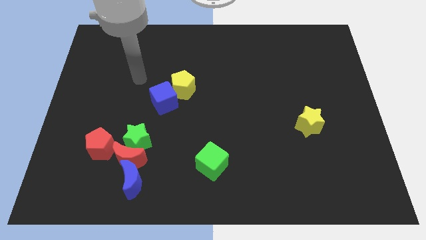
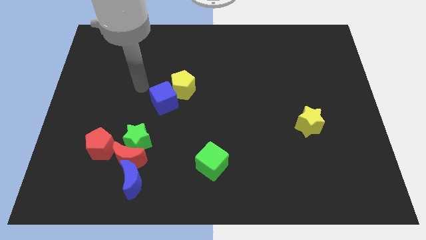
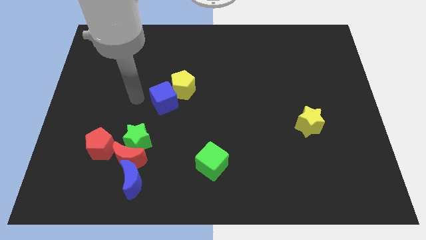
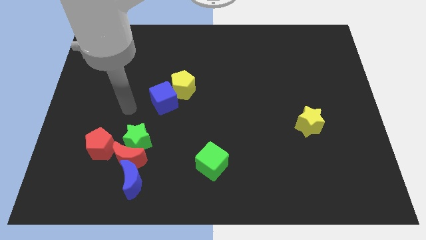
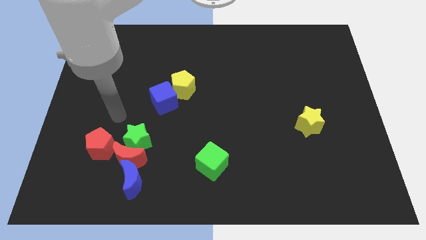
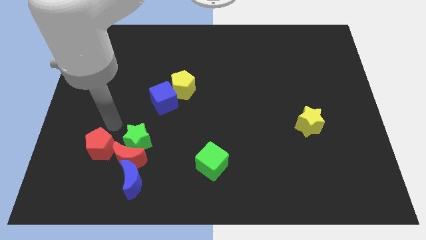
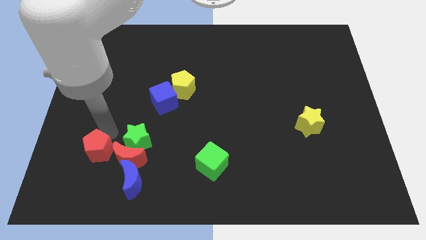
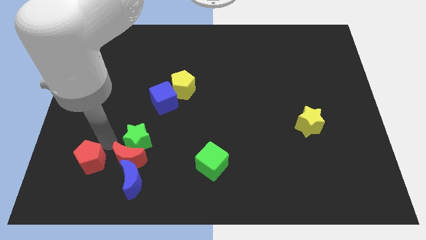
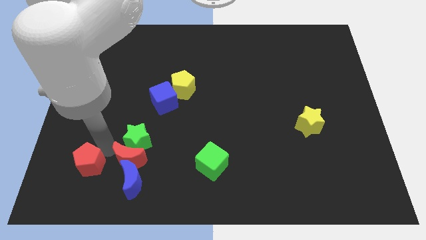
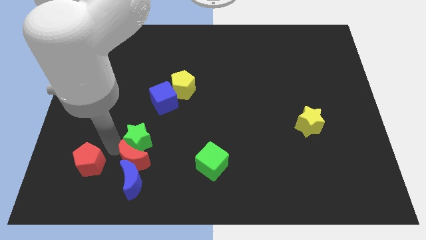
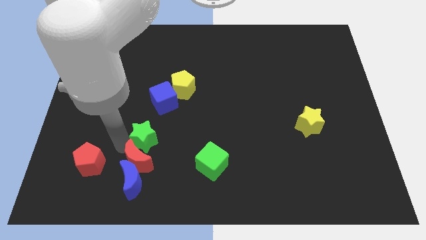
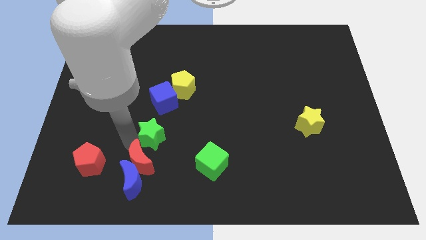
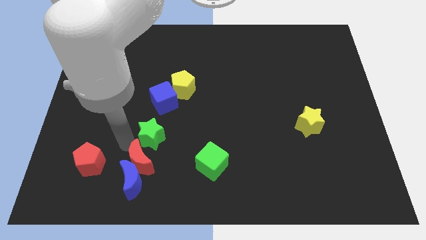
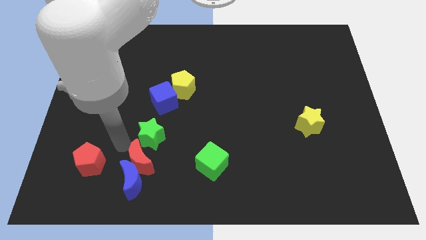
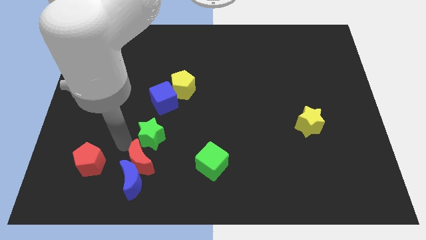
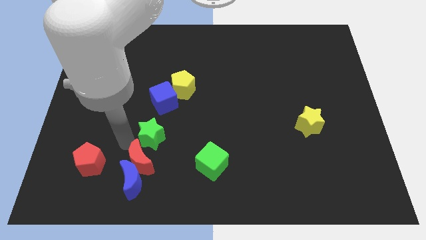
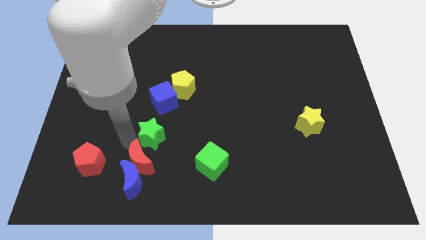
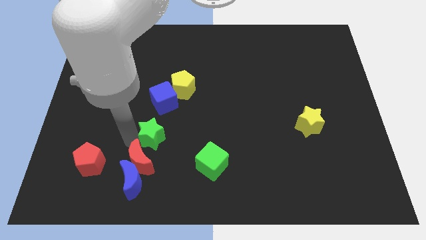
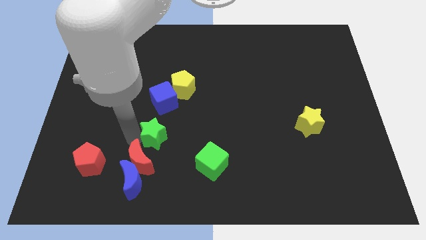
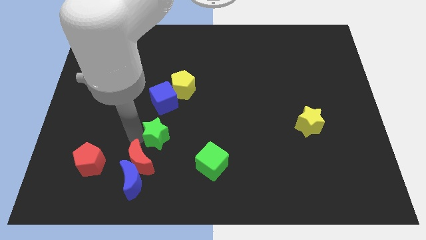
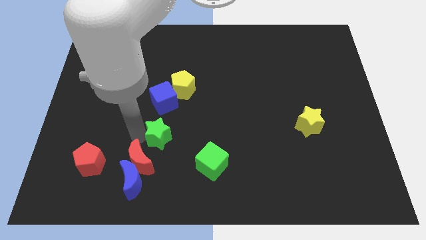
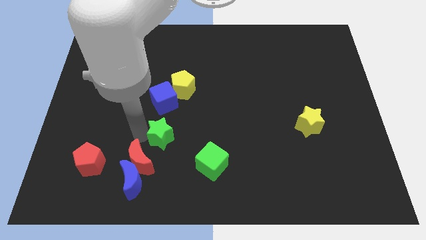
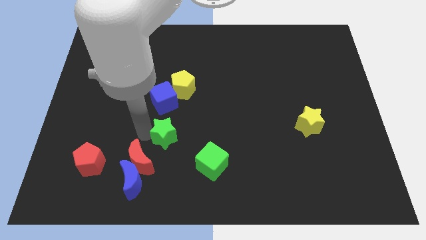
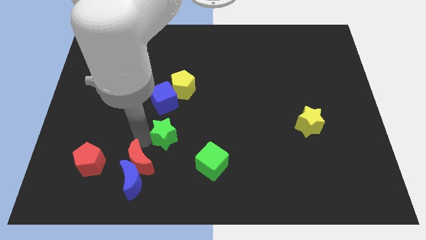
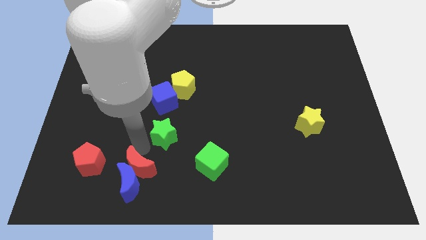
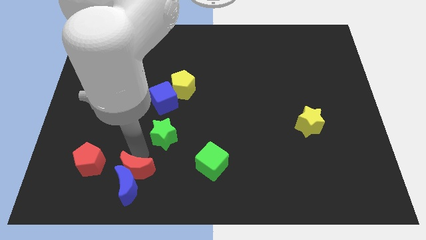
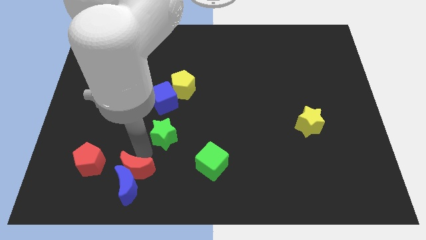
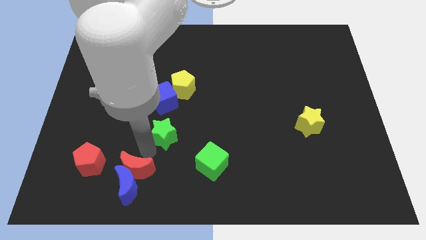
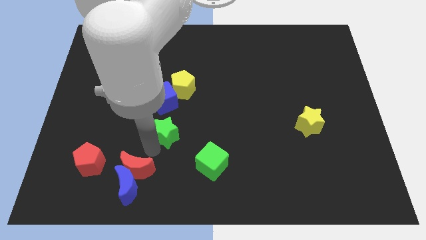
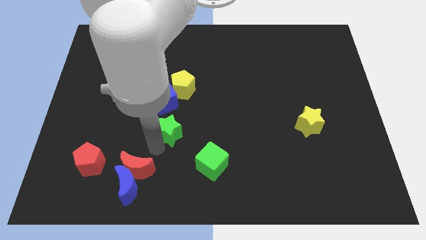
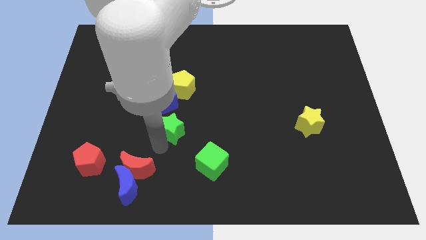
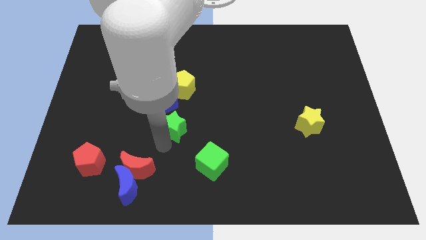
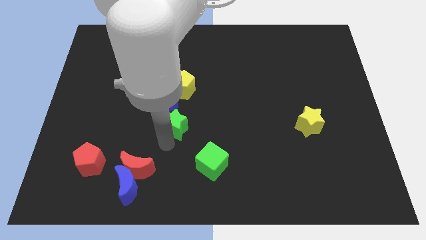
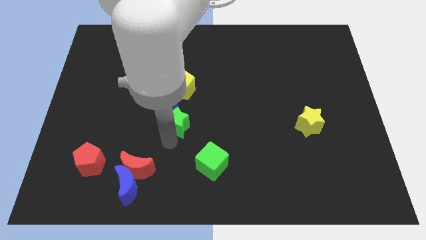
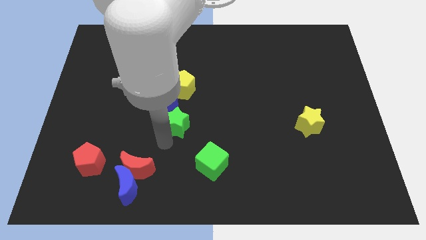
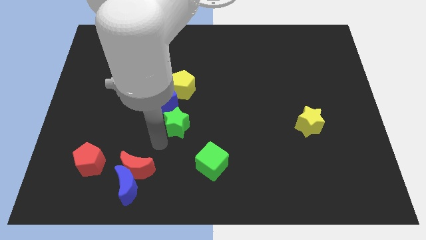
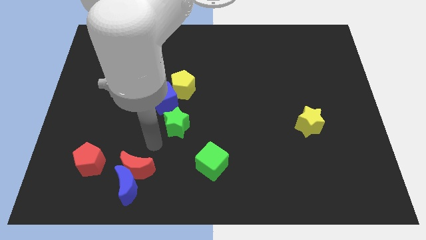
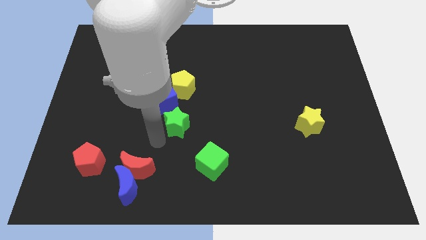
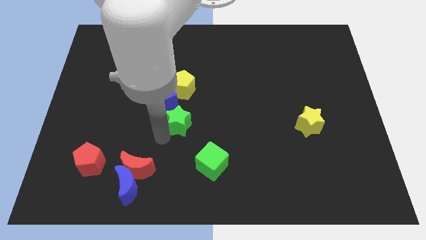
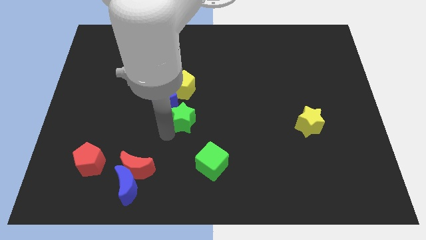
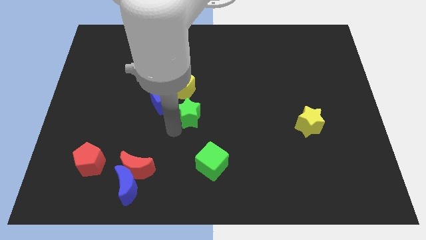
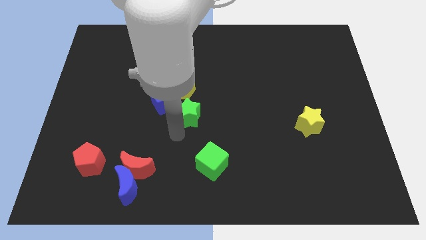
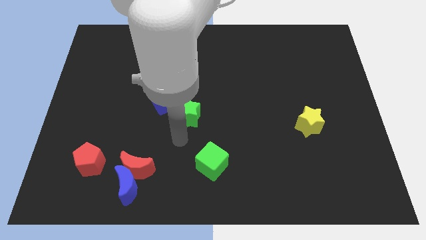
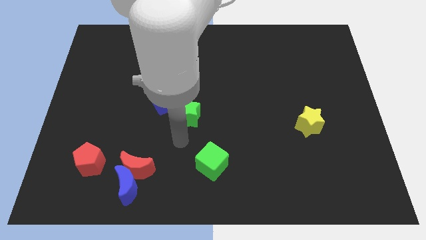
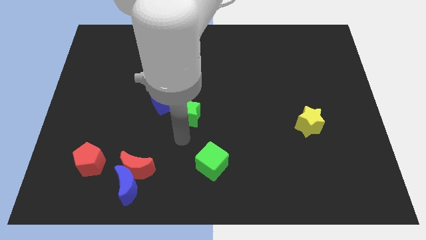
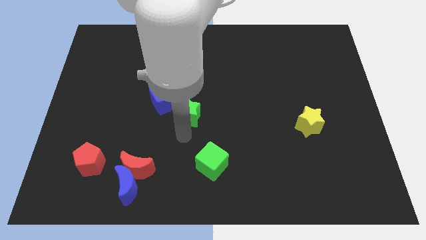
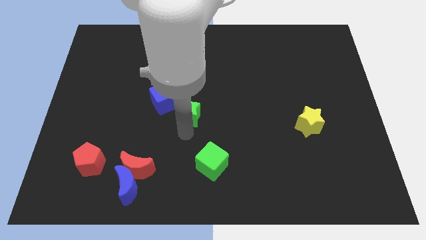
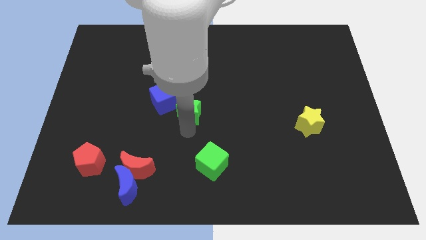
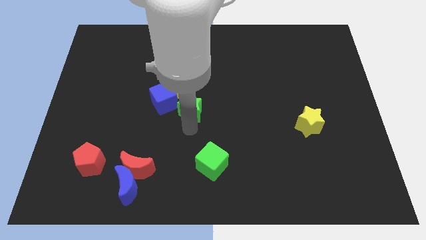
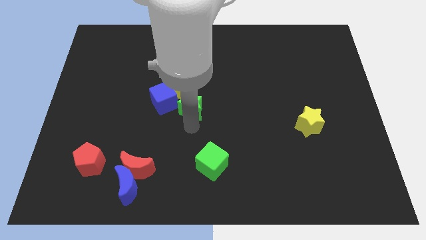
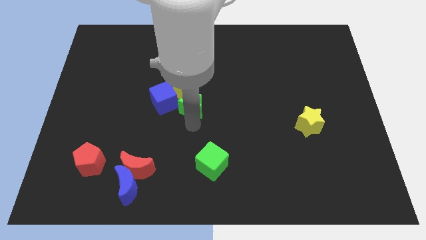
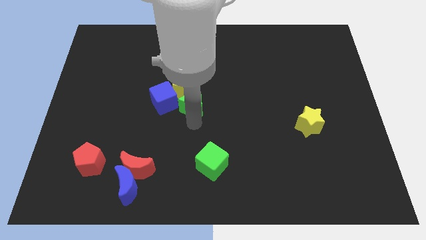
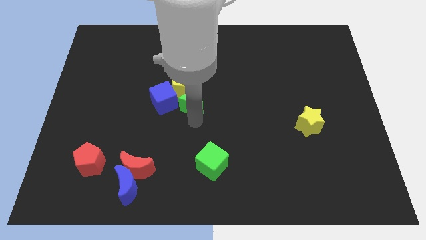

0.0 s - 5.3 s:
push the green star to the yellow pentagon

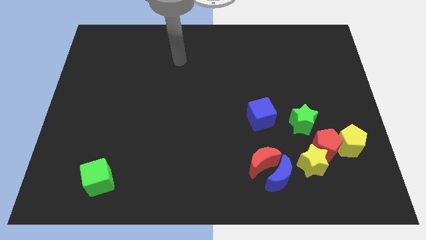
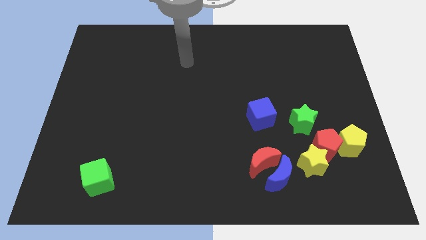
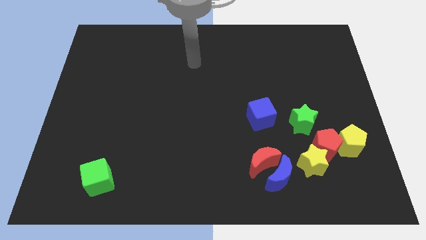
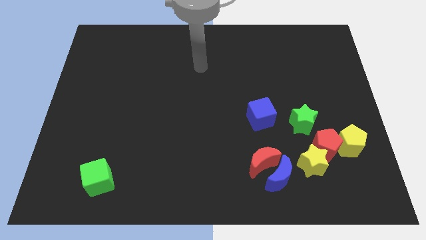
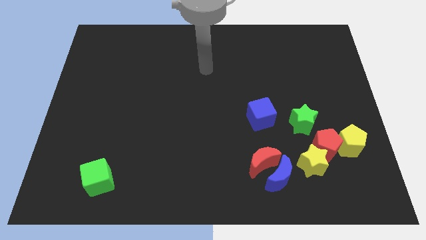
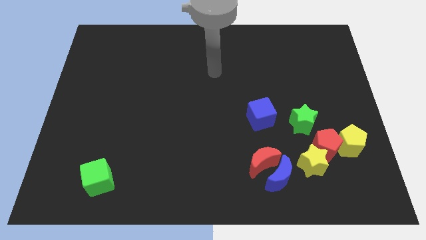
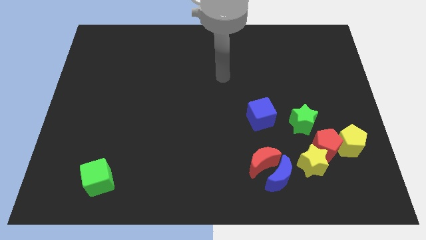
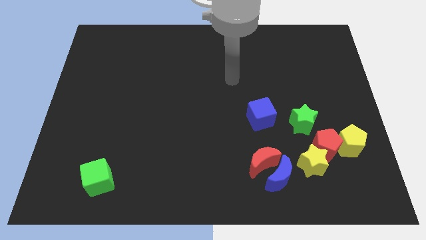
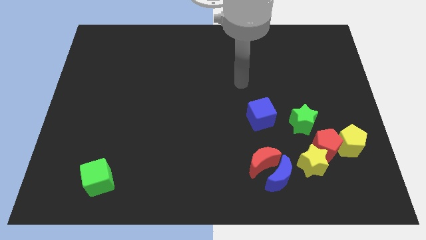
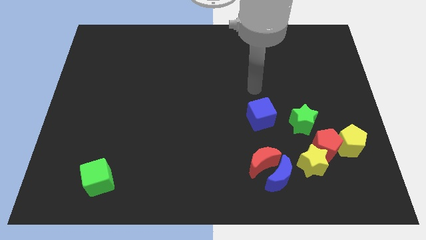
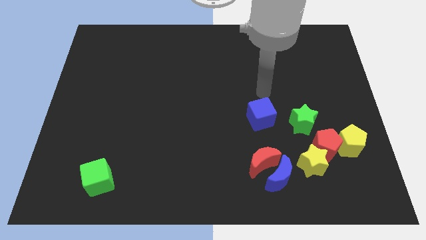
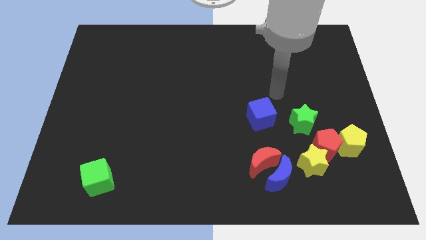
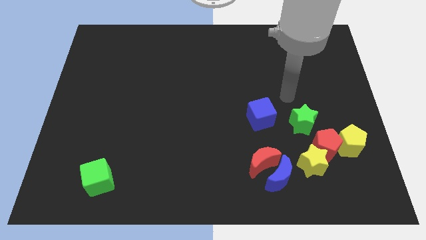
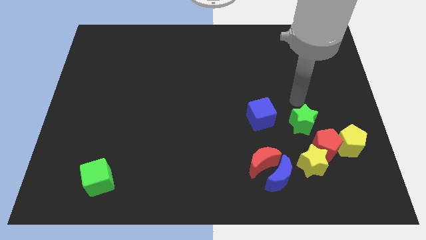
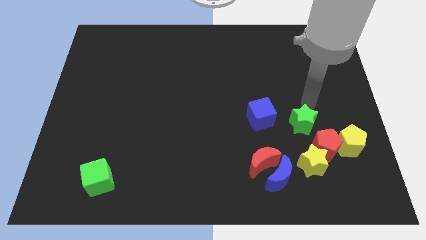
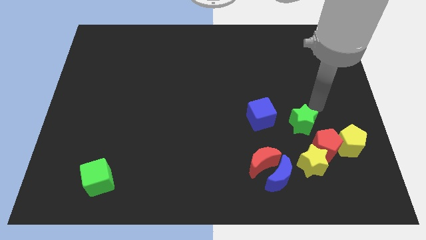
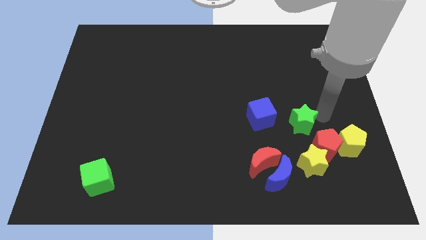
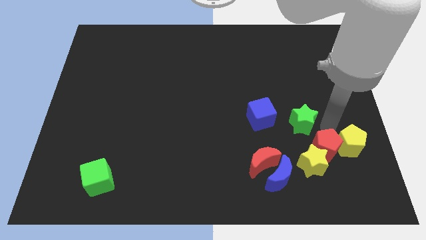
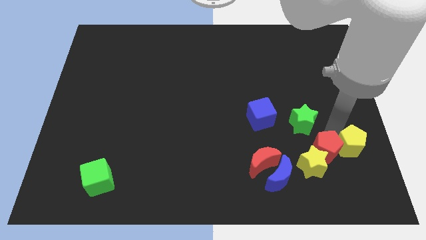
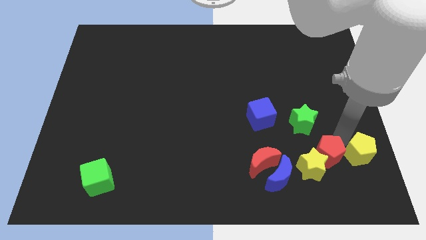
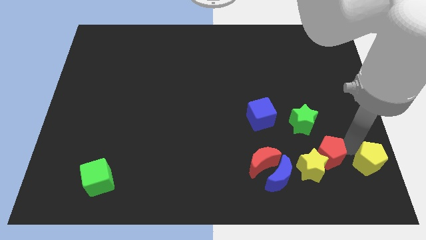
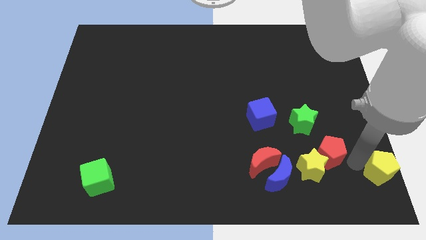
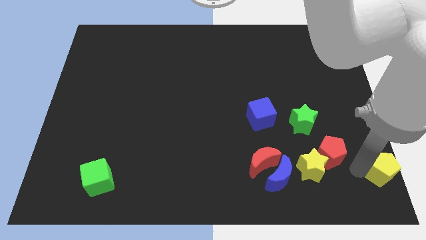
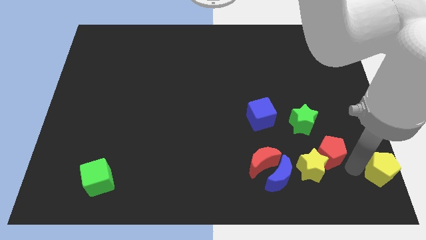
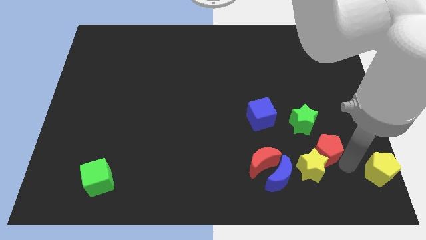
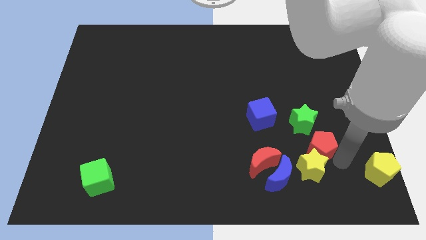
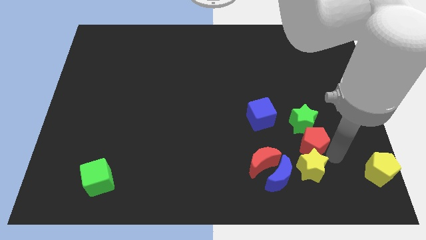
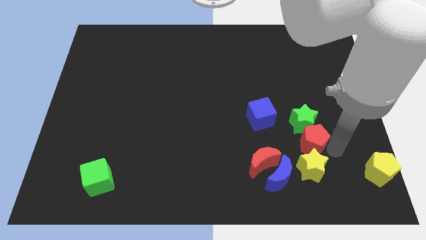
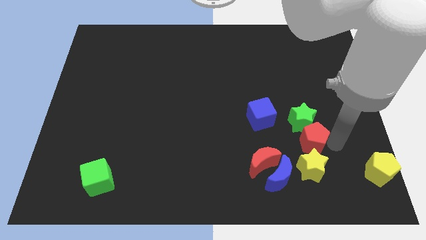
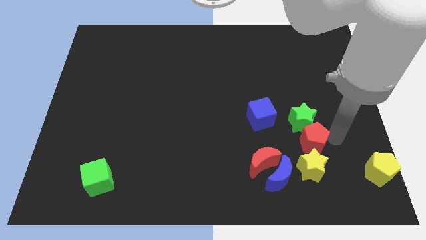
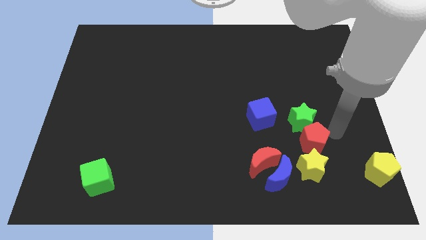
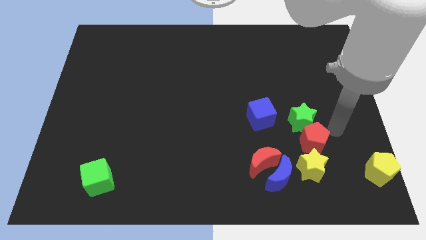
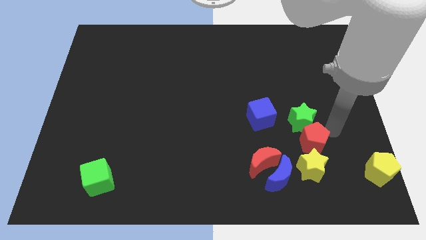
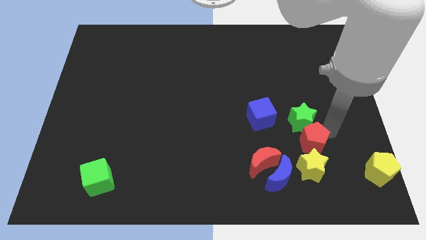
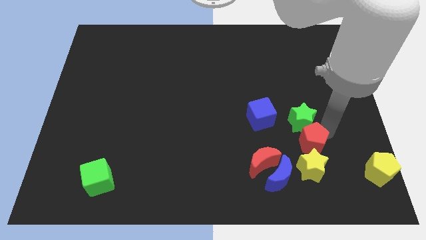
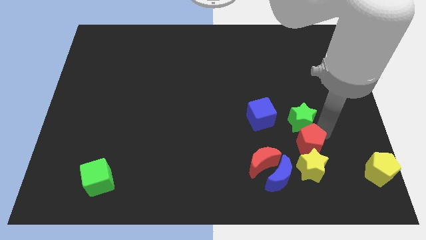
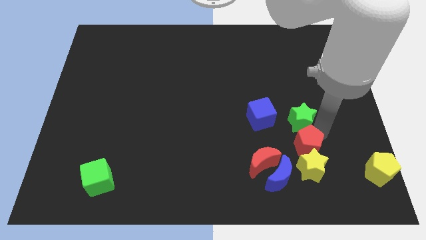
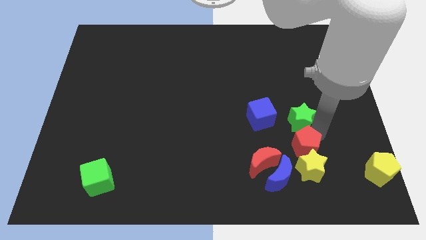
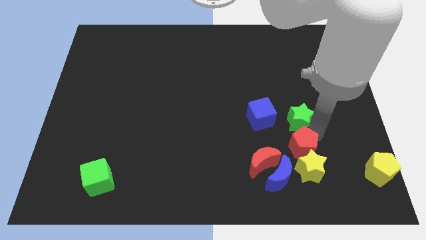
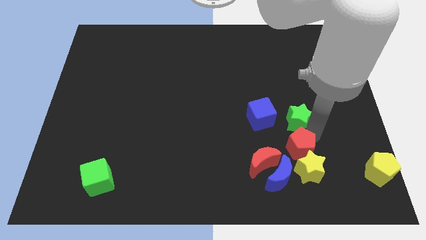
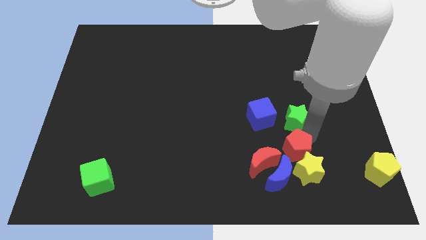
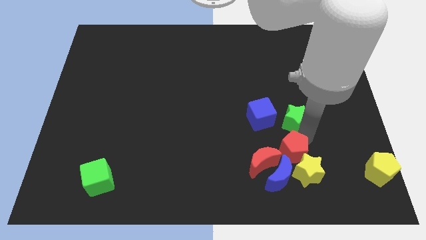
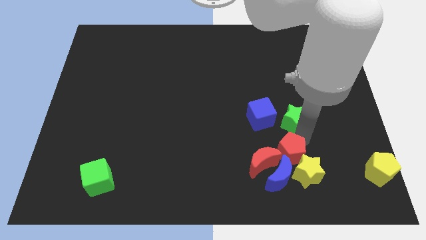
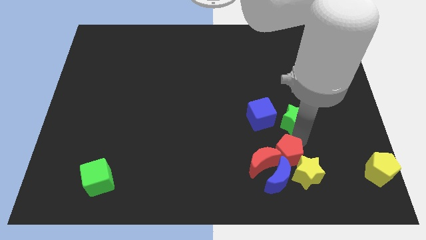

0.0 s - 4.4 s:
push the red pentagon next to the blue moon
